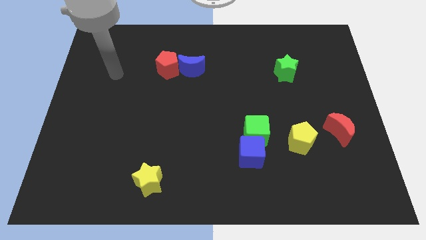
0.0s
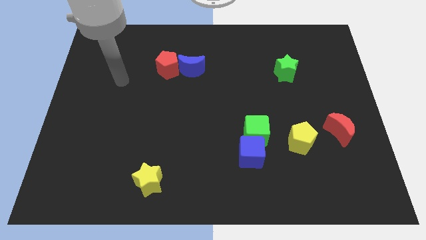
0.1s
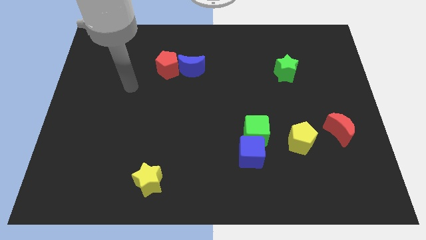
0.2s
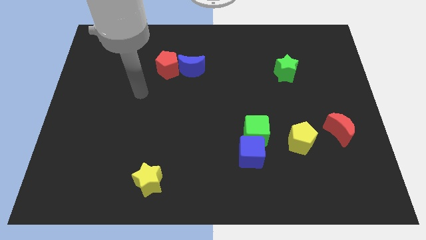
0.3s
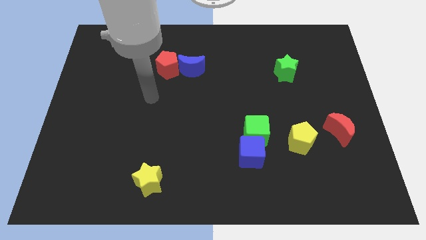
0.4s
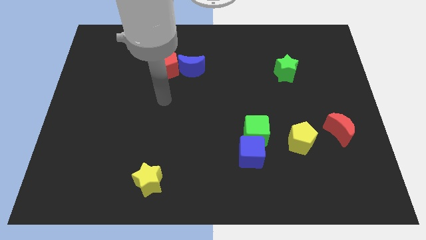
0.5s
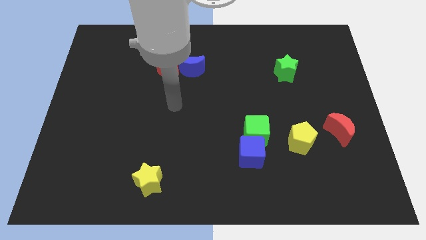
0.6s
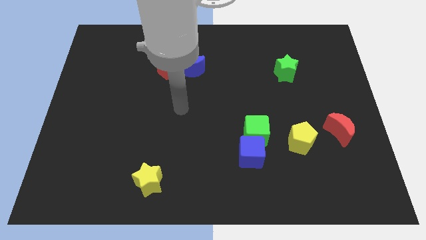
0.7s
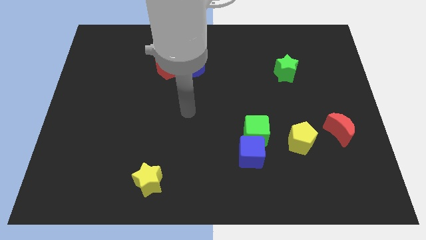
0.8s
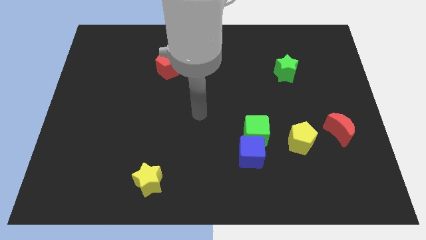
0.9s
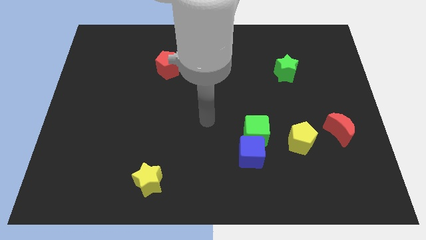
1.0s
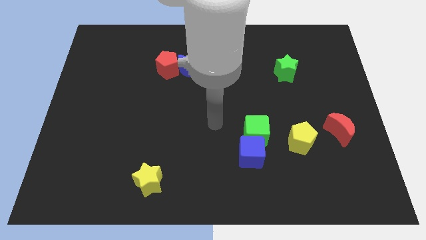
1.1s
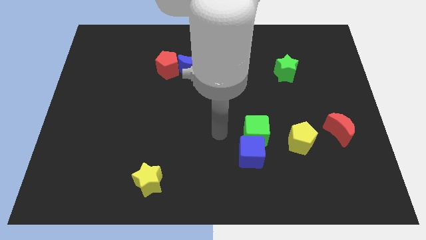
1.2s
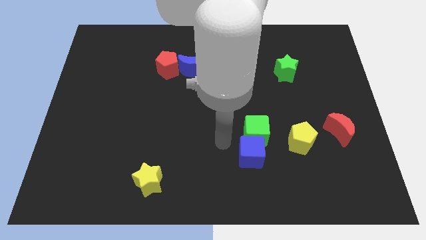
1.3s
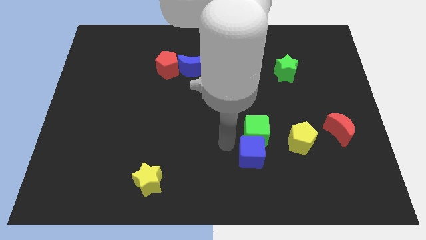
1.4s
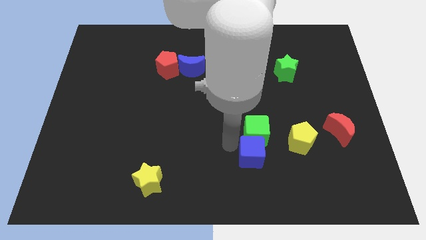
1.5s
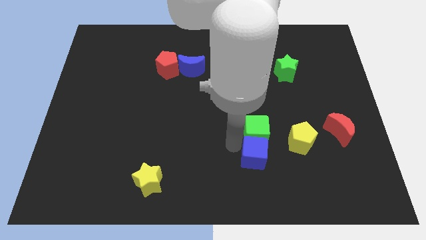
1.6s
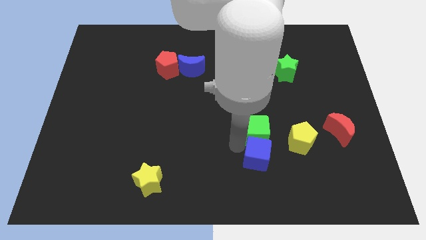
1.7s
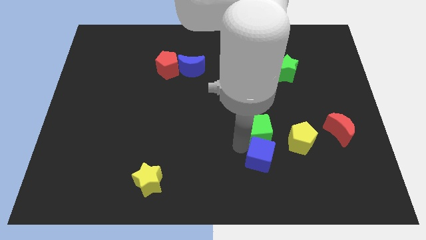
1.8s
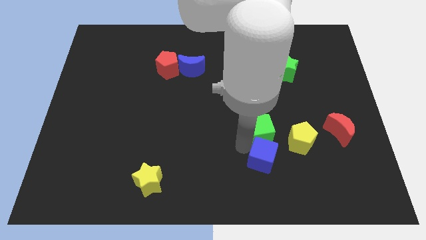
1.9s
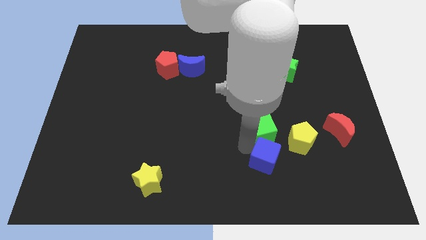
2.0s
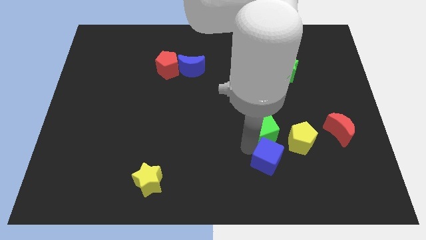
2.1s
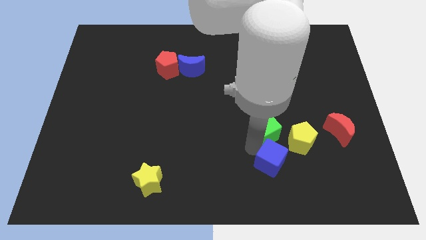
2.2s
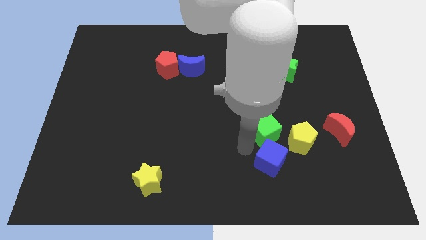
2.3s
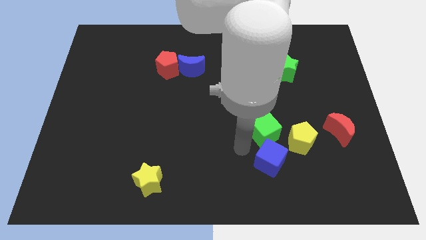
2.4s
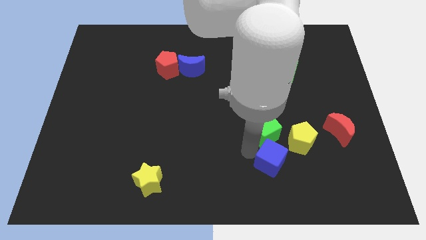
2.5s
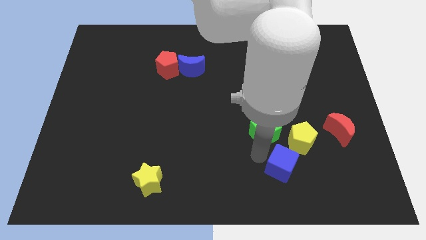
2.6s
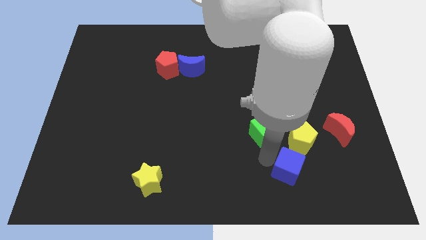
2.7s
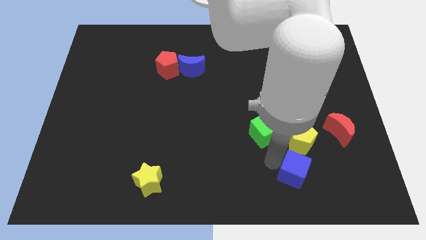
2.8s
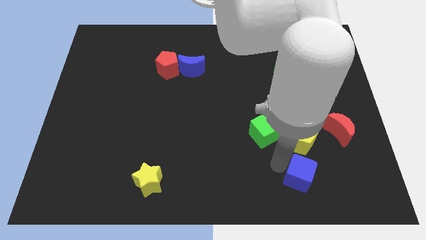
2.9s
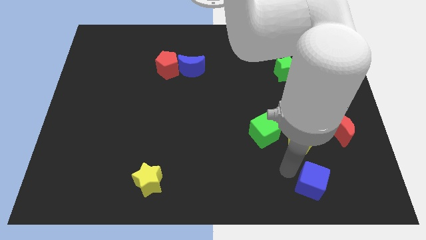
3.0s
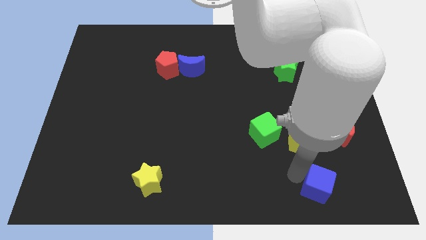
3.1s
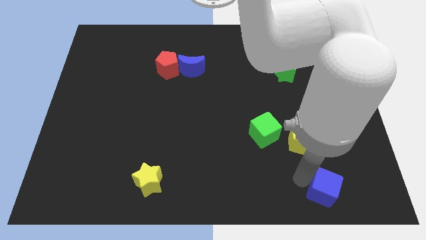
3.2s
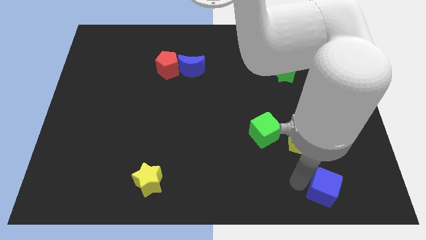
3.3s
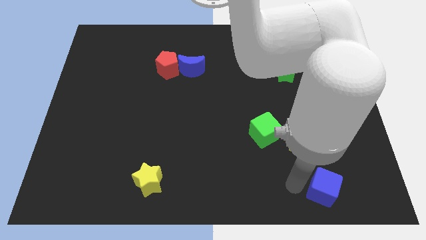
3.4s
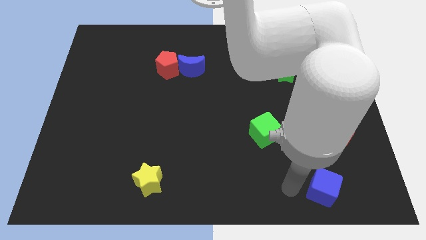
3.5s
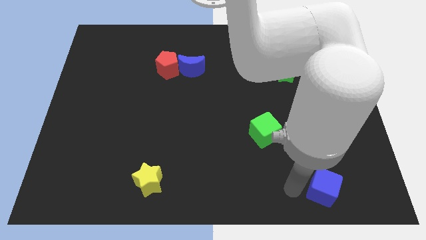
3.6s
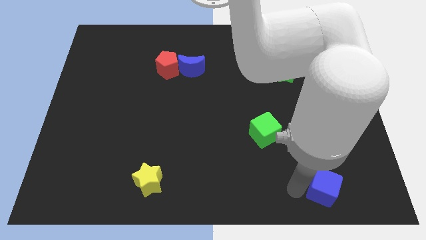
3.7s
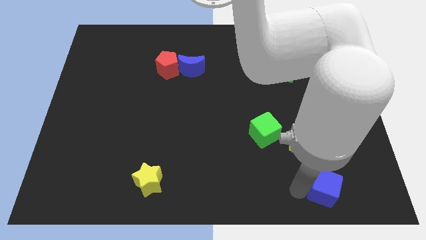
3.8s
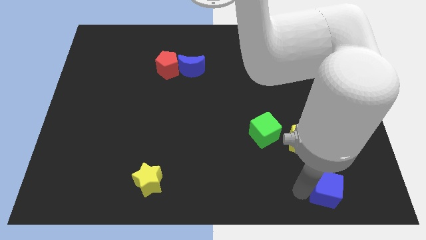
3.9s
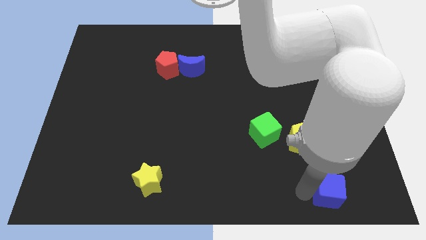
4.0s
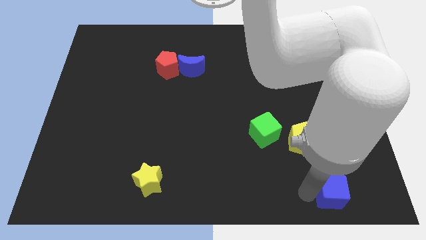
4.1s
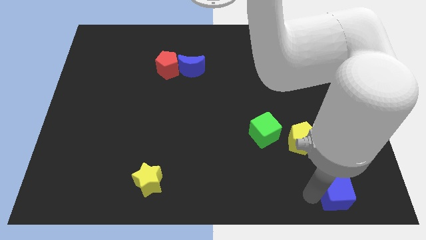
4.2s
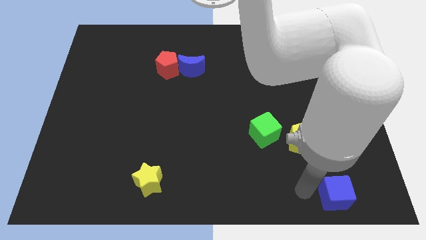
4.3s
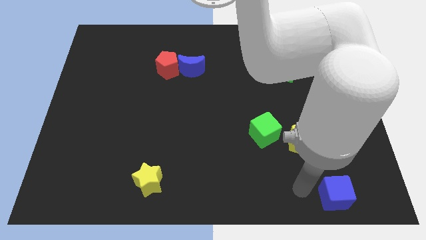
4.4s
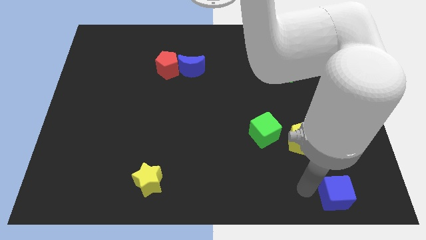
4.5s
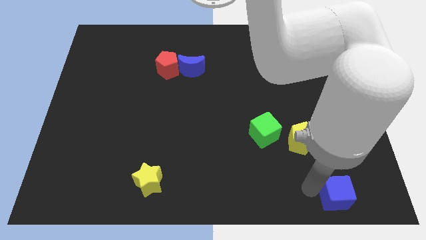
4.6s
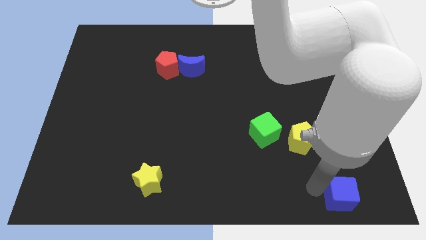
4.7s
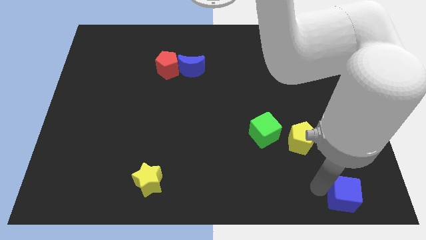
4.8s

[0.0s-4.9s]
put the blue cube to the bottom right corner

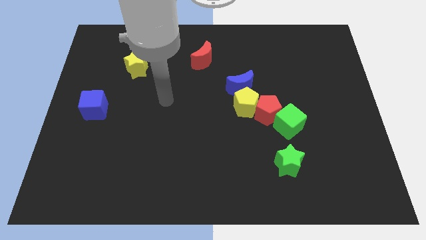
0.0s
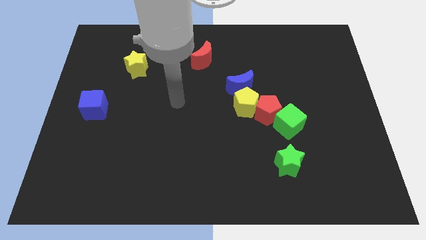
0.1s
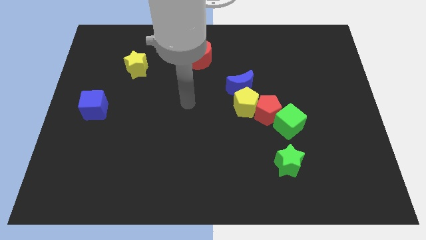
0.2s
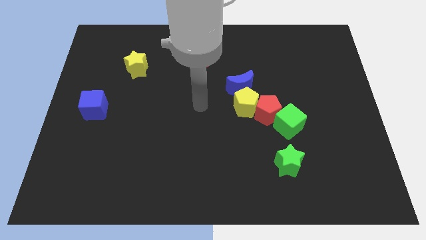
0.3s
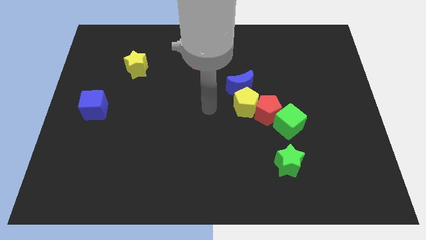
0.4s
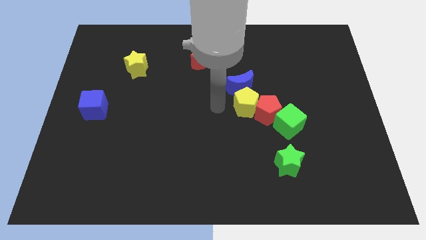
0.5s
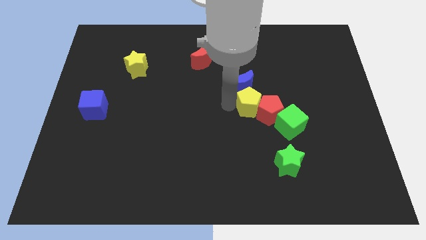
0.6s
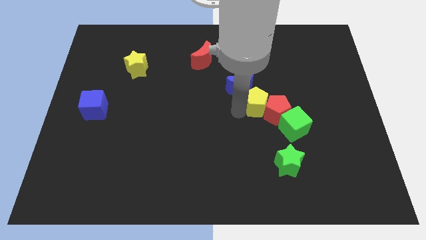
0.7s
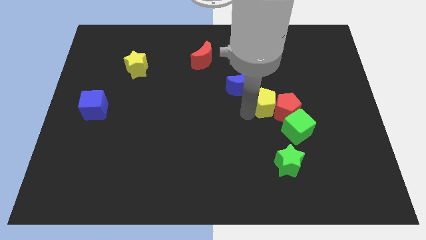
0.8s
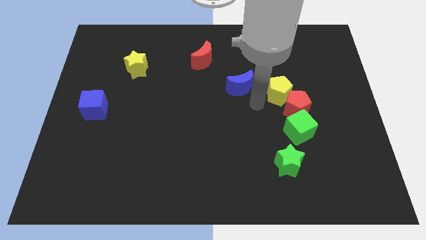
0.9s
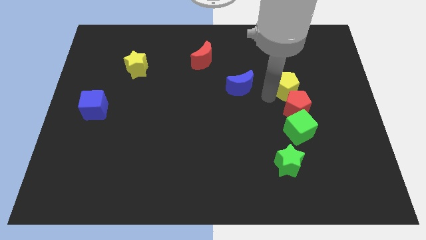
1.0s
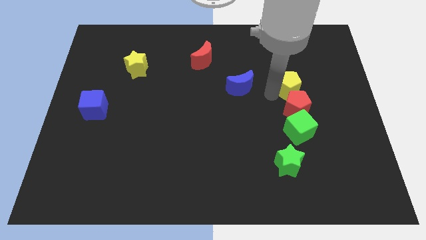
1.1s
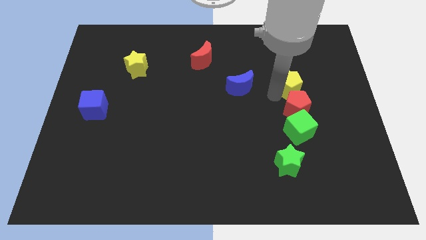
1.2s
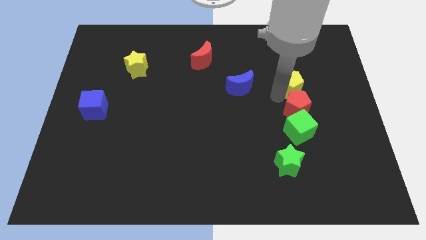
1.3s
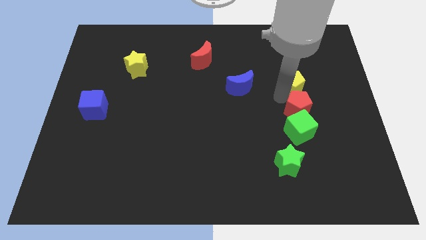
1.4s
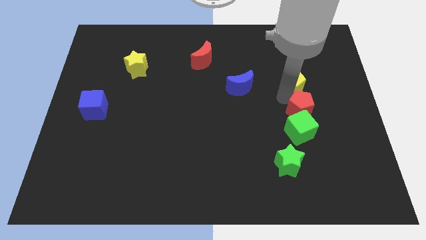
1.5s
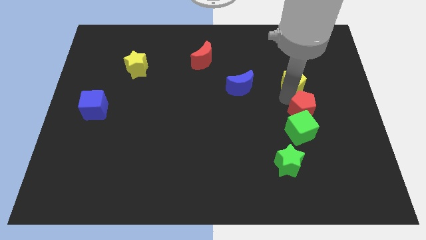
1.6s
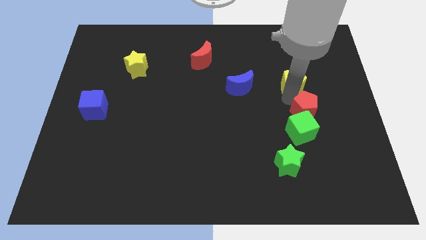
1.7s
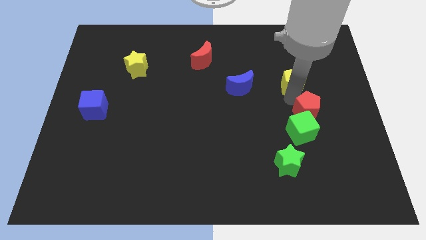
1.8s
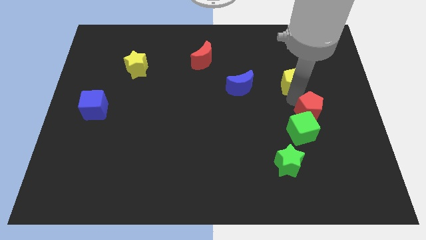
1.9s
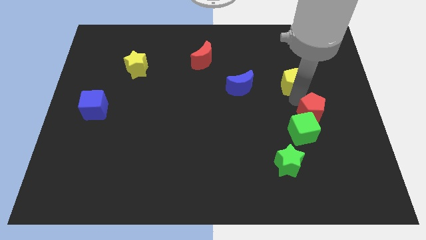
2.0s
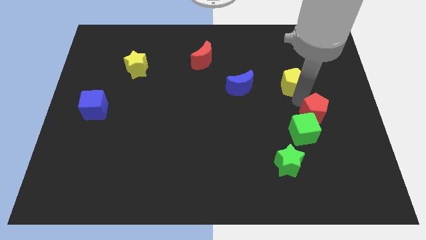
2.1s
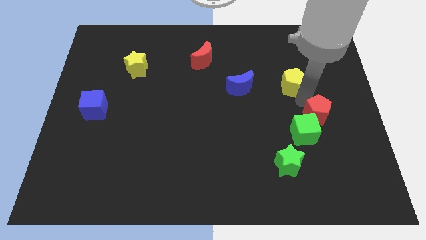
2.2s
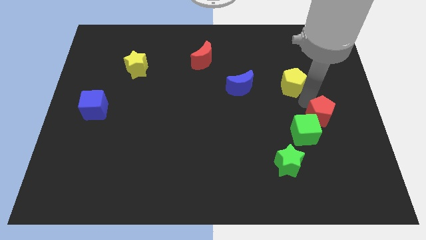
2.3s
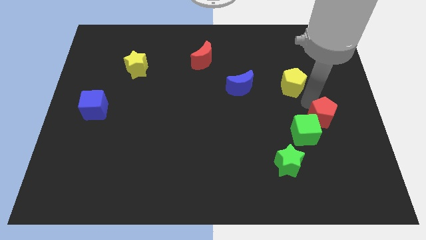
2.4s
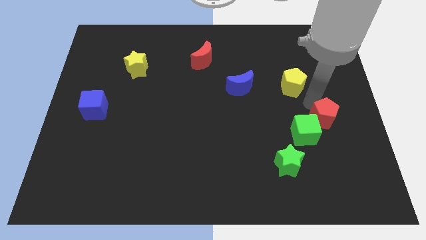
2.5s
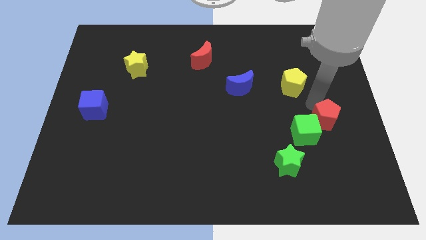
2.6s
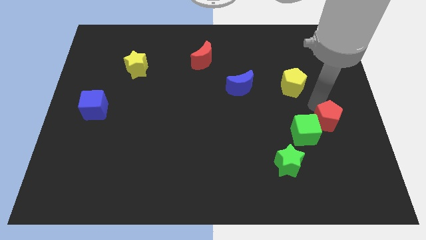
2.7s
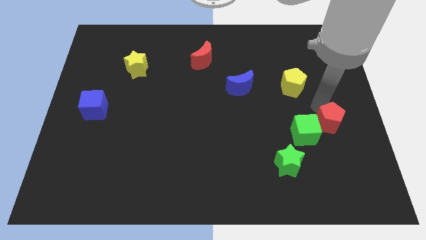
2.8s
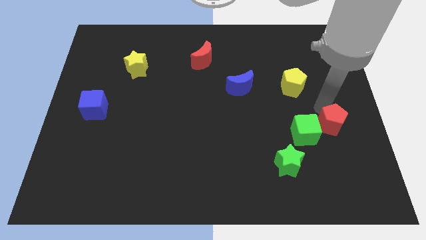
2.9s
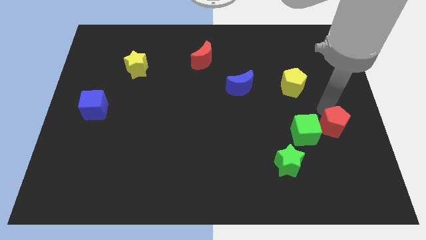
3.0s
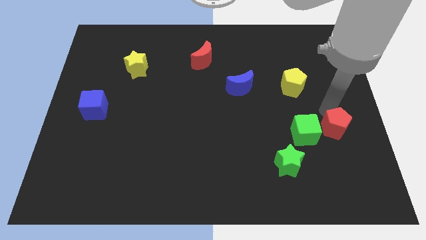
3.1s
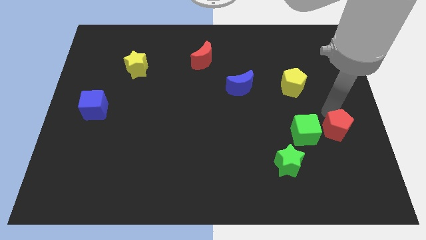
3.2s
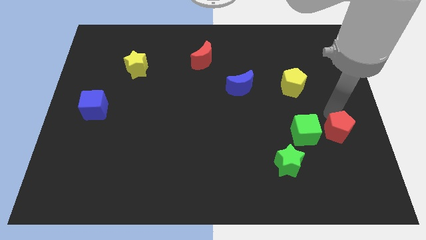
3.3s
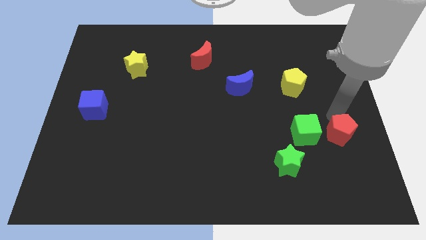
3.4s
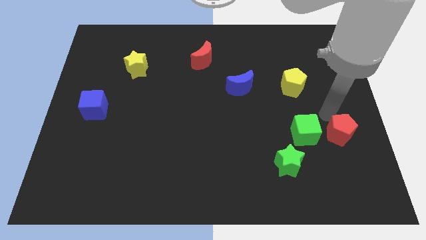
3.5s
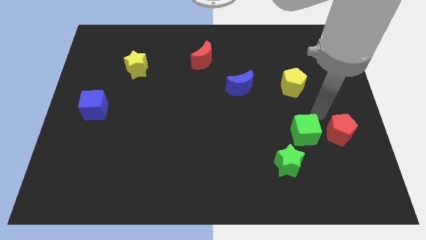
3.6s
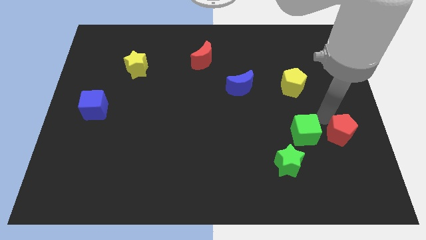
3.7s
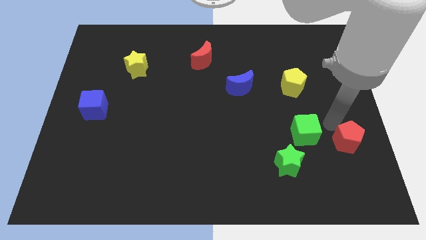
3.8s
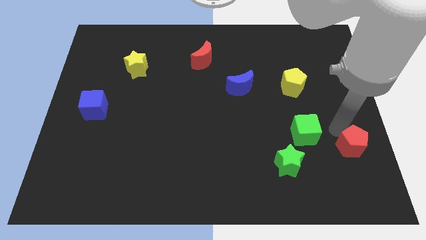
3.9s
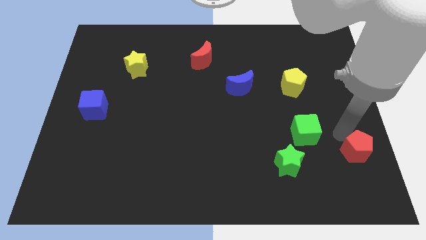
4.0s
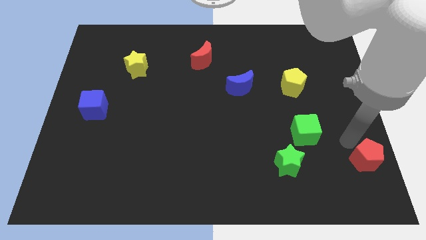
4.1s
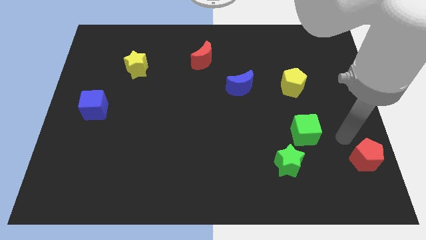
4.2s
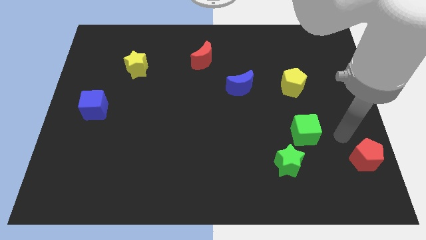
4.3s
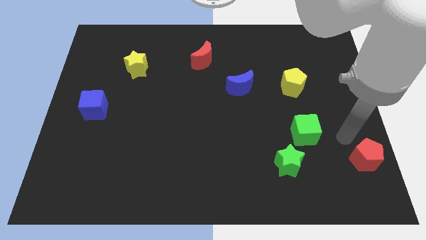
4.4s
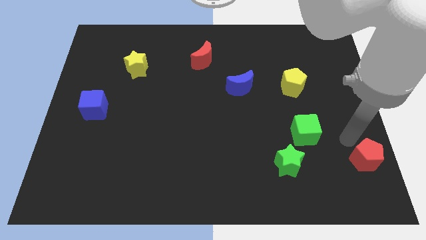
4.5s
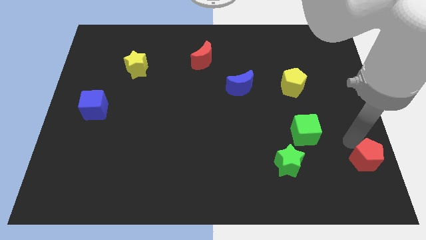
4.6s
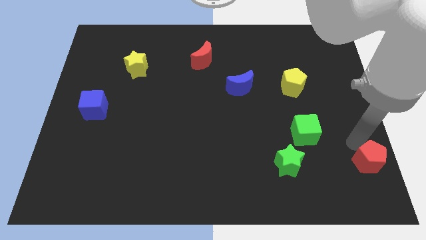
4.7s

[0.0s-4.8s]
put the red pentagon to the bottom right of the board
